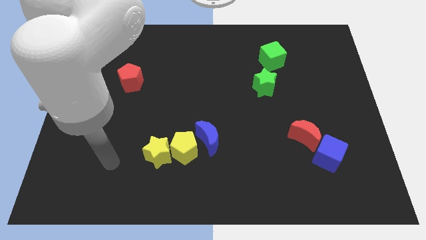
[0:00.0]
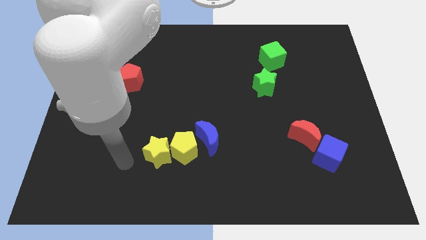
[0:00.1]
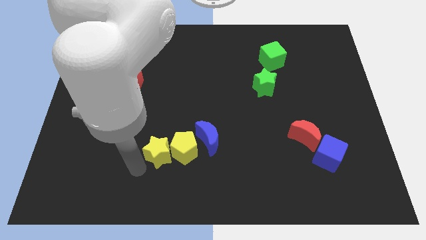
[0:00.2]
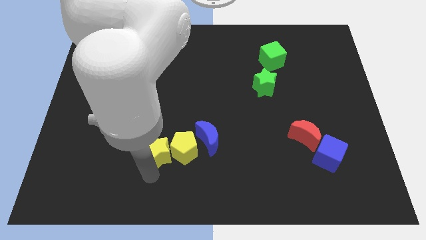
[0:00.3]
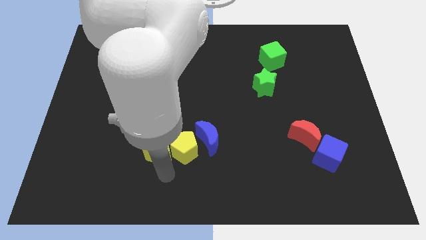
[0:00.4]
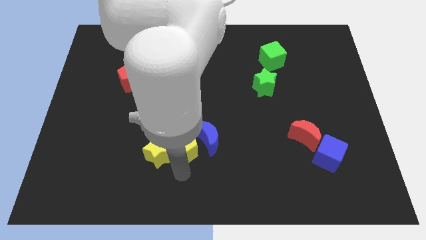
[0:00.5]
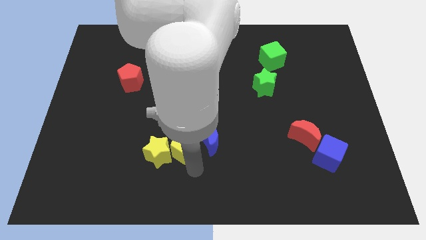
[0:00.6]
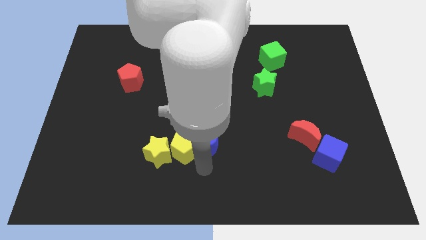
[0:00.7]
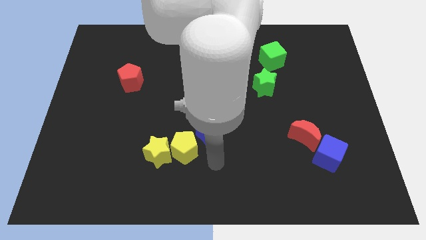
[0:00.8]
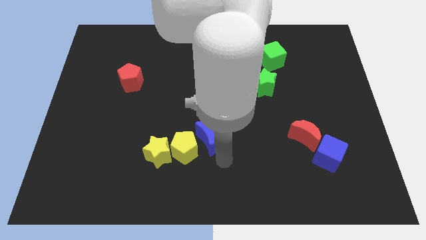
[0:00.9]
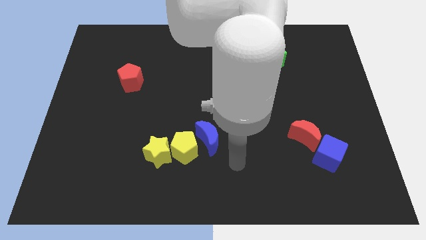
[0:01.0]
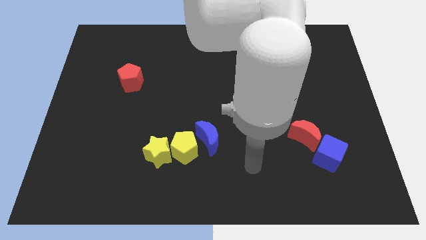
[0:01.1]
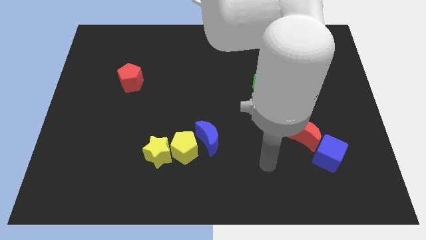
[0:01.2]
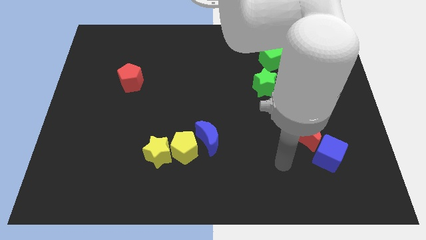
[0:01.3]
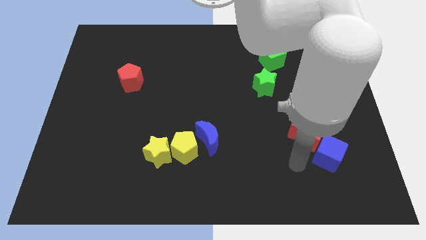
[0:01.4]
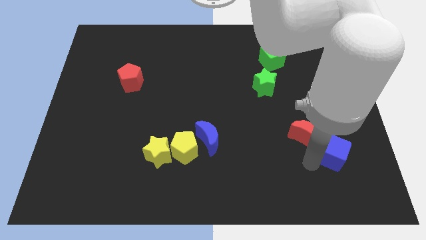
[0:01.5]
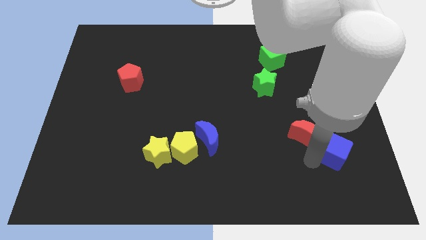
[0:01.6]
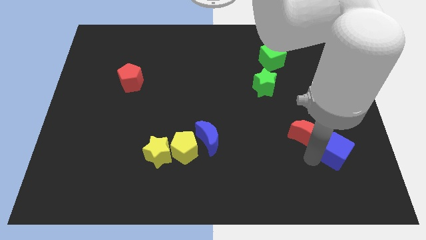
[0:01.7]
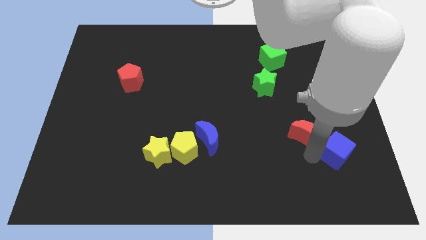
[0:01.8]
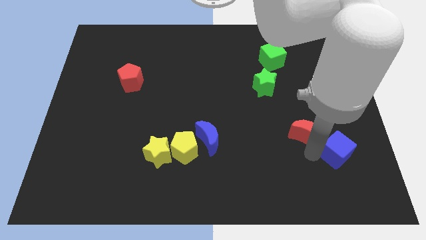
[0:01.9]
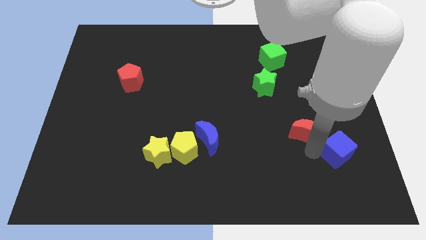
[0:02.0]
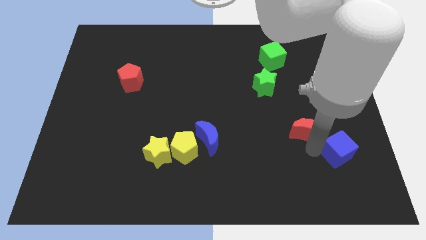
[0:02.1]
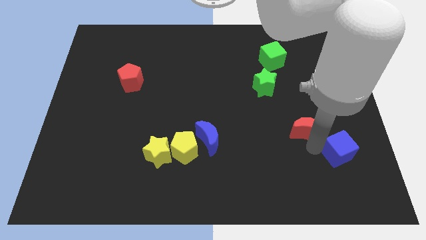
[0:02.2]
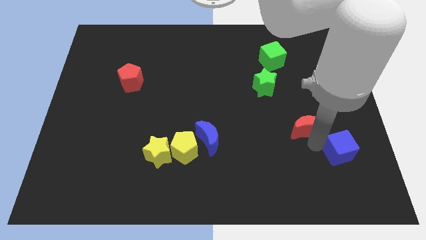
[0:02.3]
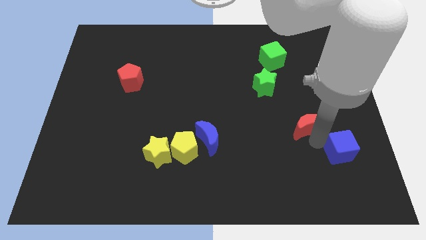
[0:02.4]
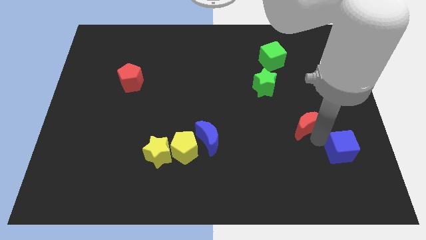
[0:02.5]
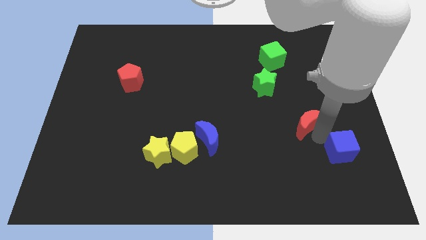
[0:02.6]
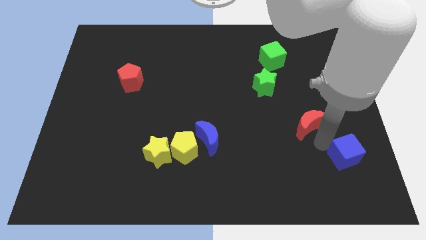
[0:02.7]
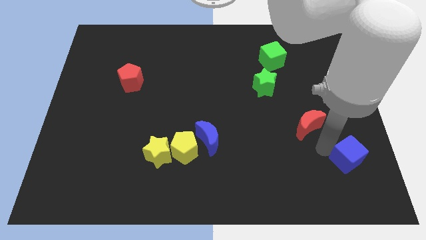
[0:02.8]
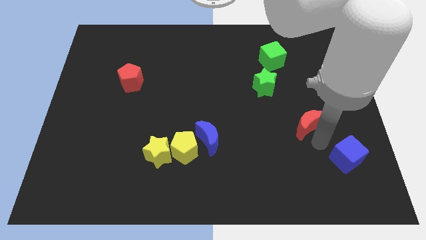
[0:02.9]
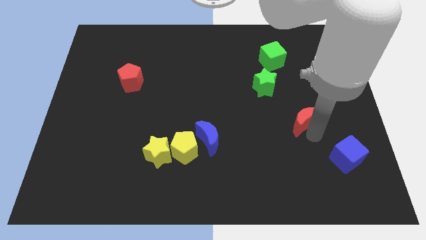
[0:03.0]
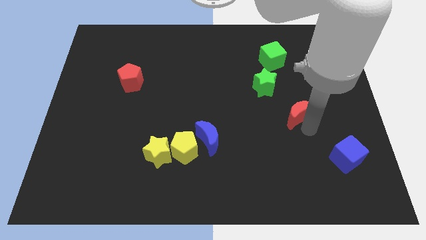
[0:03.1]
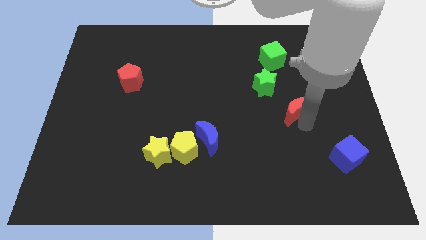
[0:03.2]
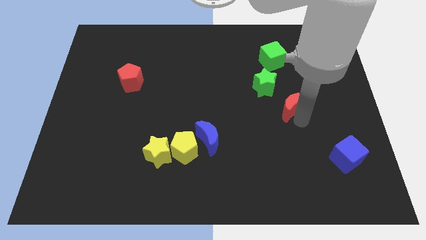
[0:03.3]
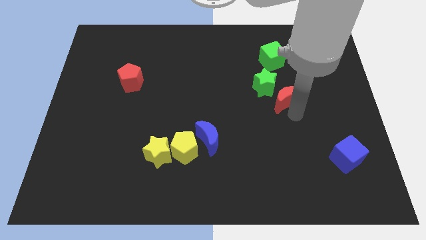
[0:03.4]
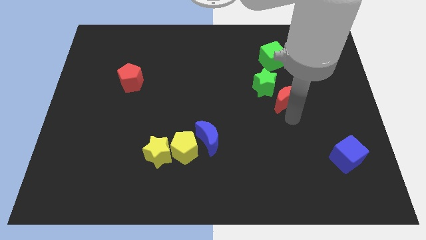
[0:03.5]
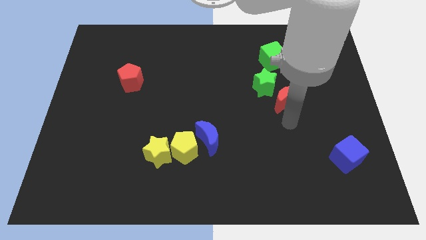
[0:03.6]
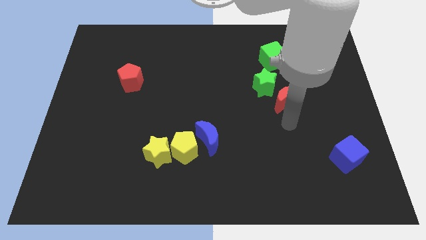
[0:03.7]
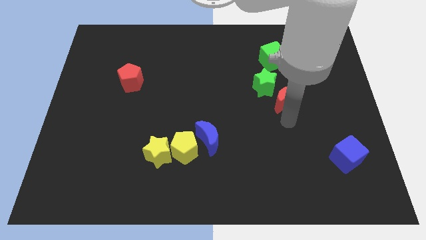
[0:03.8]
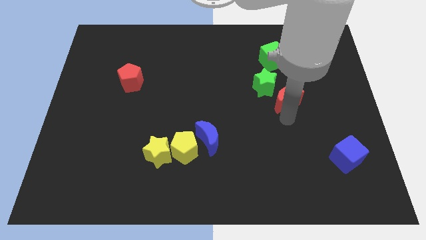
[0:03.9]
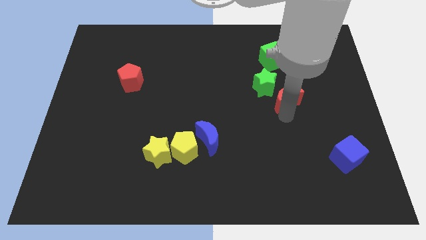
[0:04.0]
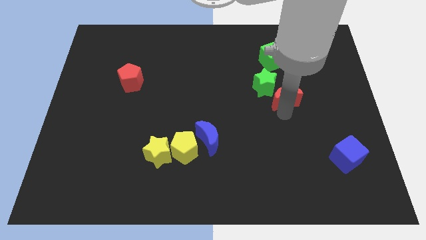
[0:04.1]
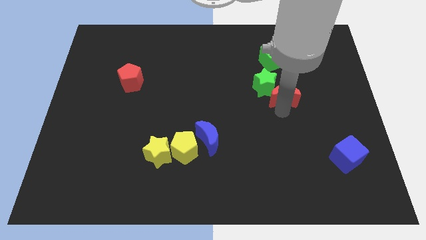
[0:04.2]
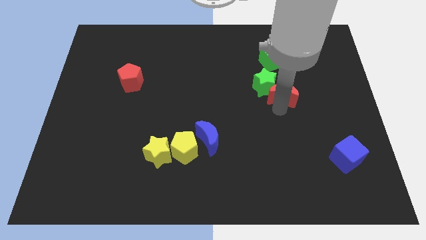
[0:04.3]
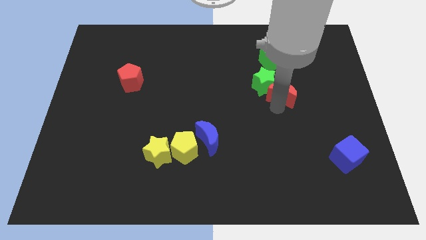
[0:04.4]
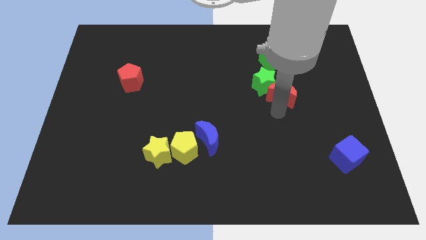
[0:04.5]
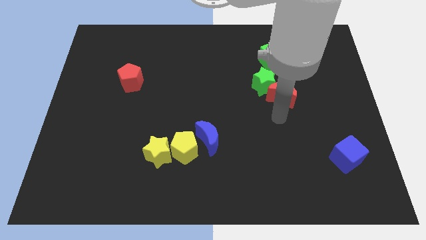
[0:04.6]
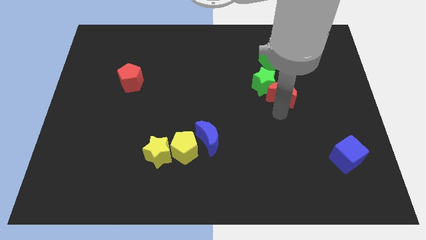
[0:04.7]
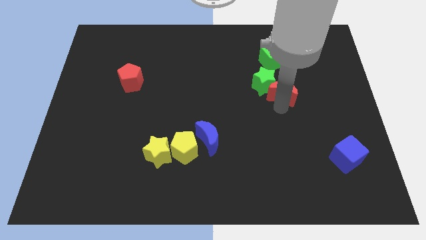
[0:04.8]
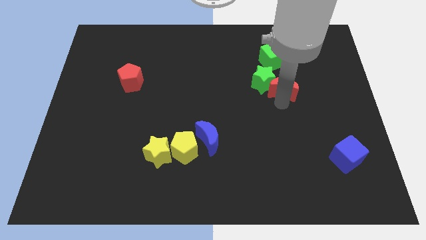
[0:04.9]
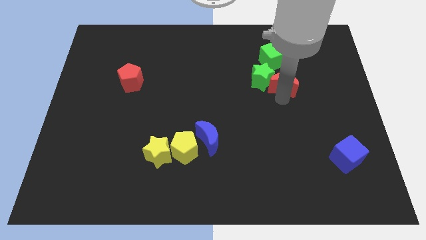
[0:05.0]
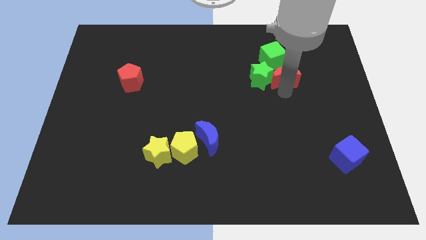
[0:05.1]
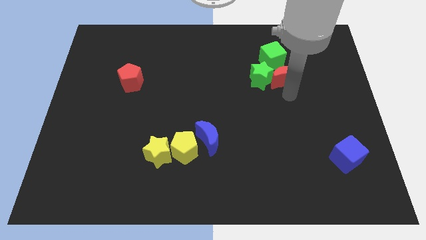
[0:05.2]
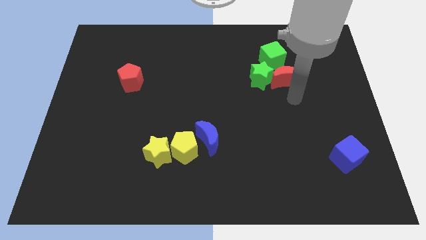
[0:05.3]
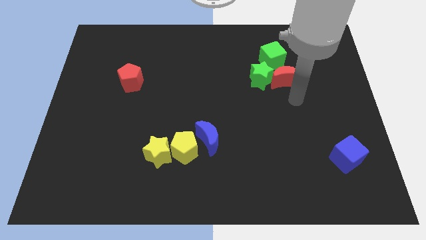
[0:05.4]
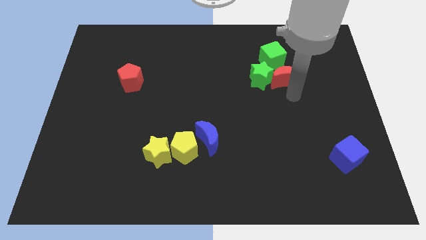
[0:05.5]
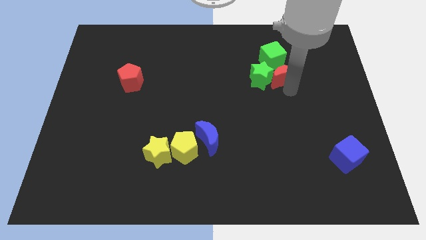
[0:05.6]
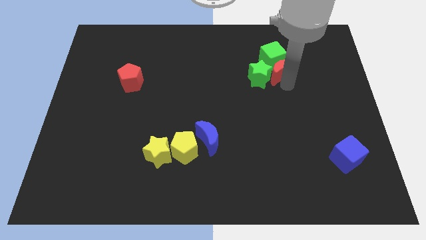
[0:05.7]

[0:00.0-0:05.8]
slide the red moon close to the green cube

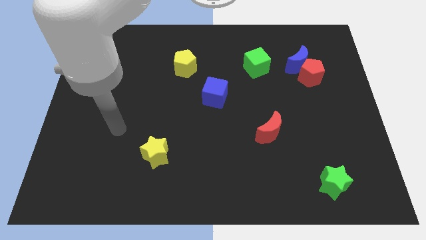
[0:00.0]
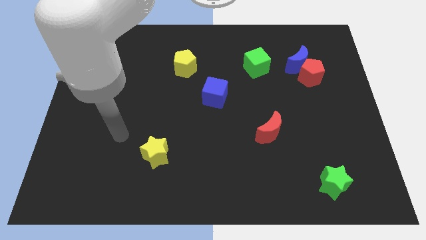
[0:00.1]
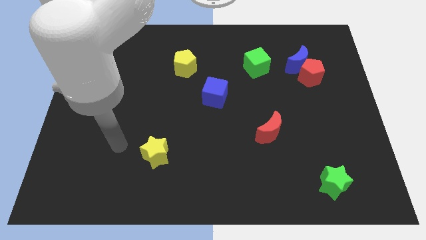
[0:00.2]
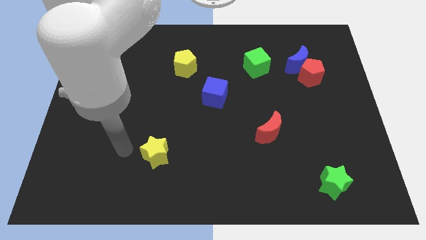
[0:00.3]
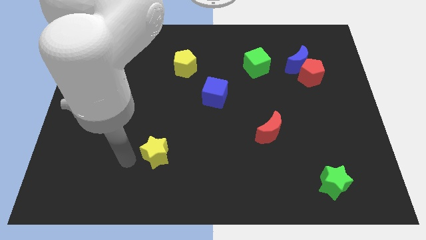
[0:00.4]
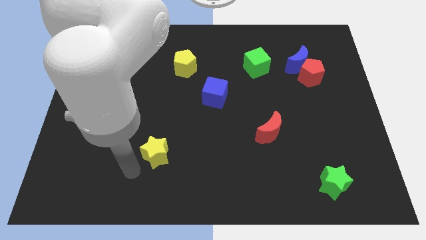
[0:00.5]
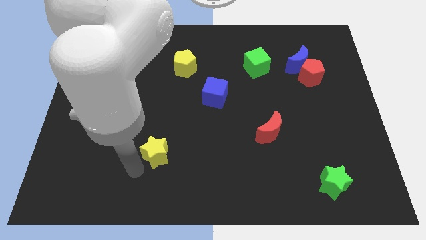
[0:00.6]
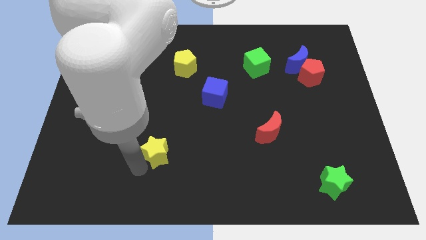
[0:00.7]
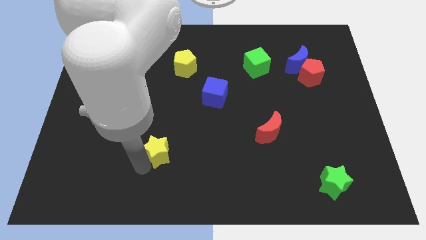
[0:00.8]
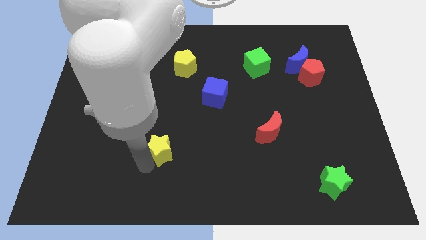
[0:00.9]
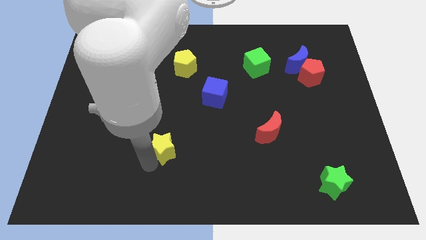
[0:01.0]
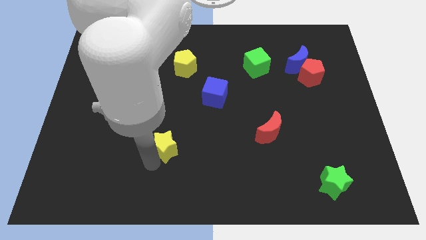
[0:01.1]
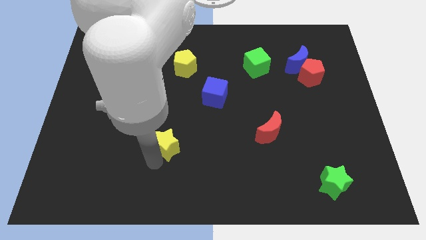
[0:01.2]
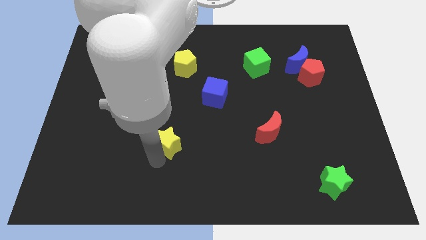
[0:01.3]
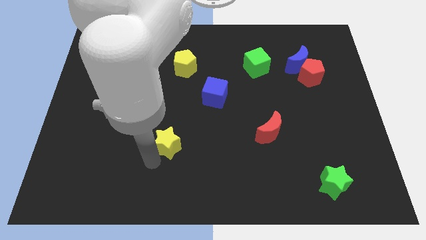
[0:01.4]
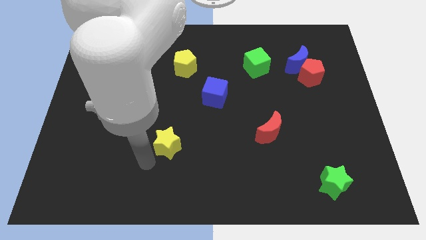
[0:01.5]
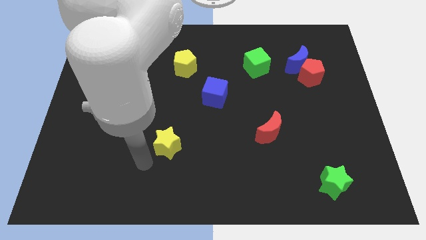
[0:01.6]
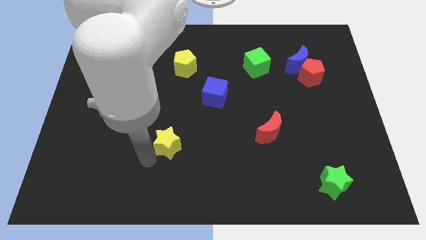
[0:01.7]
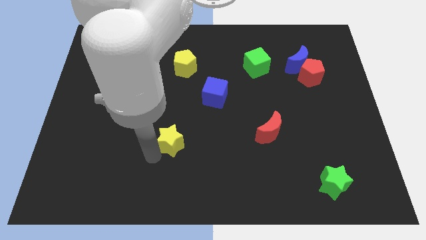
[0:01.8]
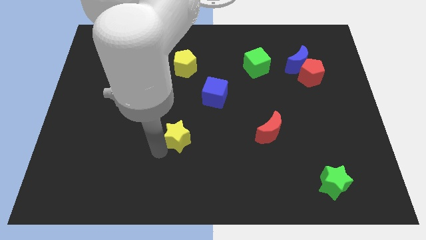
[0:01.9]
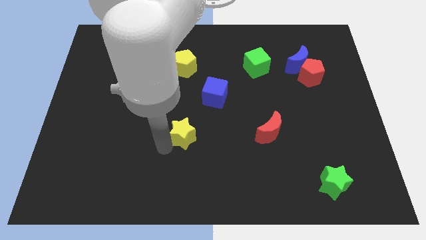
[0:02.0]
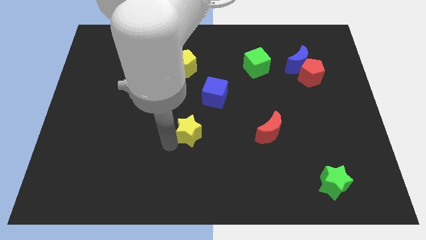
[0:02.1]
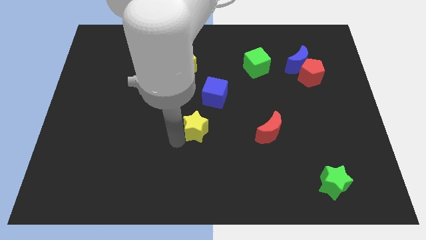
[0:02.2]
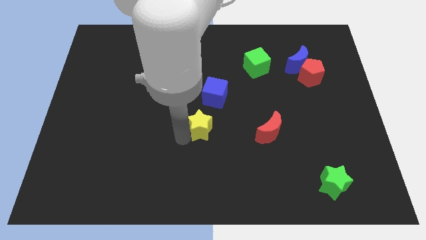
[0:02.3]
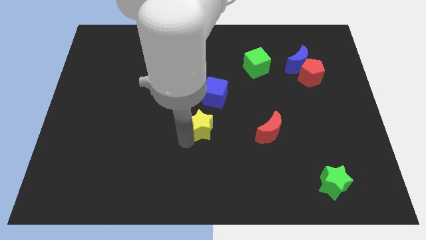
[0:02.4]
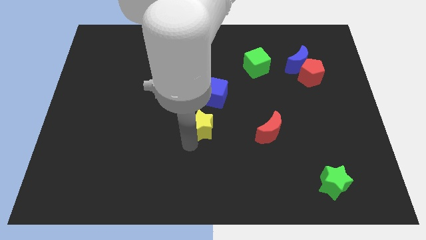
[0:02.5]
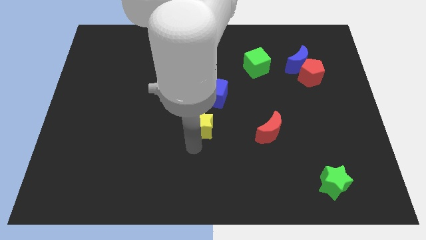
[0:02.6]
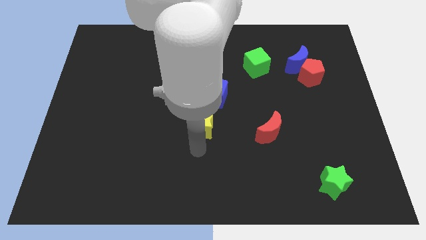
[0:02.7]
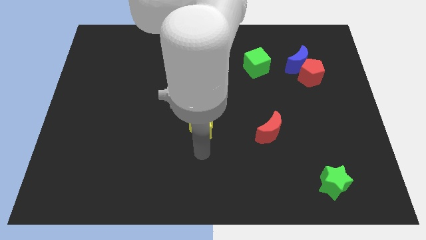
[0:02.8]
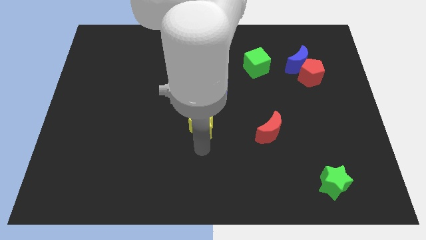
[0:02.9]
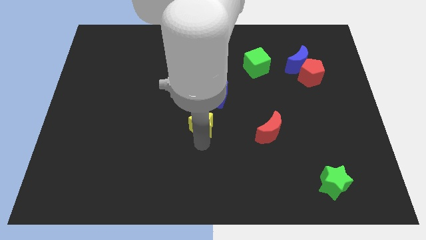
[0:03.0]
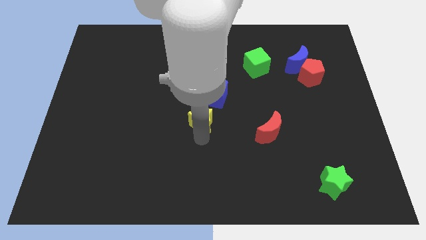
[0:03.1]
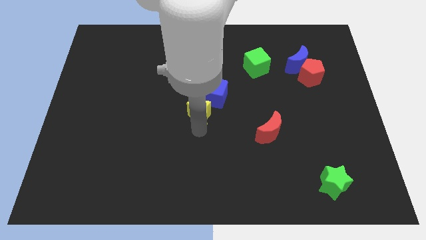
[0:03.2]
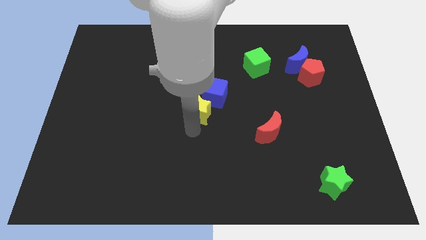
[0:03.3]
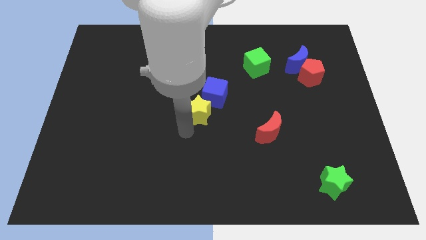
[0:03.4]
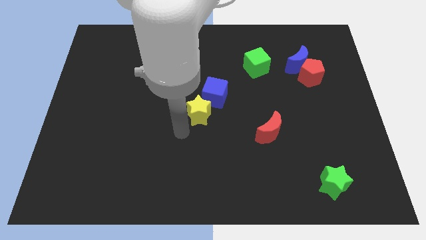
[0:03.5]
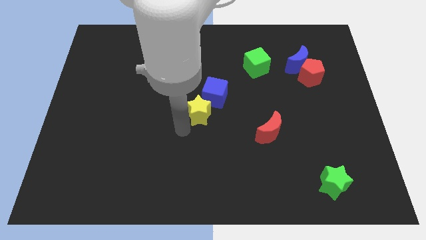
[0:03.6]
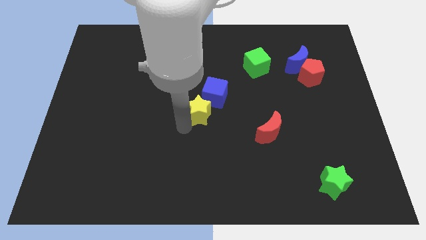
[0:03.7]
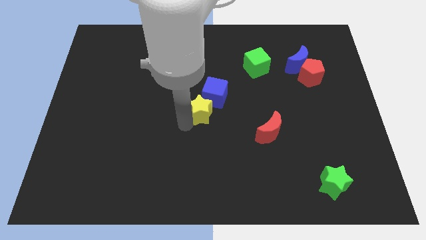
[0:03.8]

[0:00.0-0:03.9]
move the yellow star close to the blue cube
